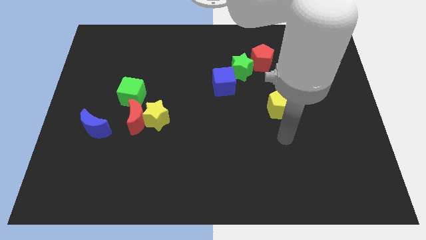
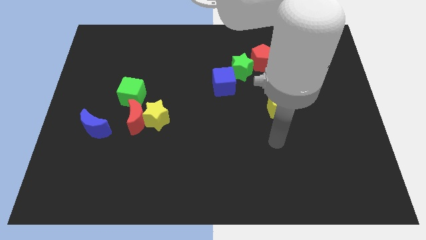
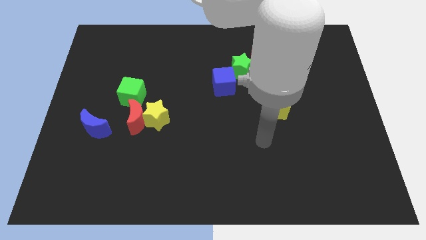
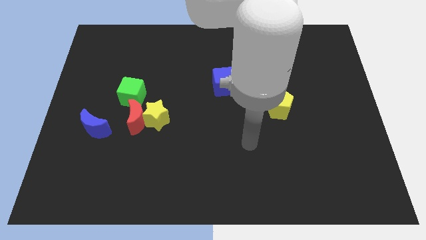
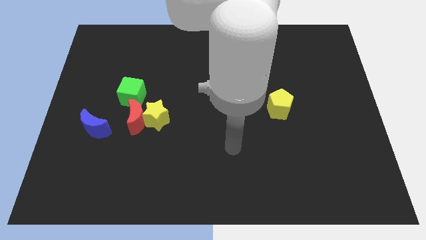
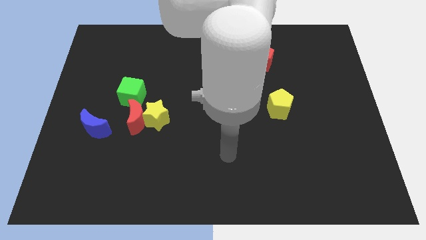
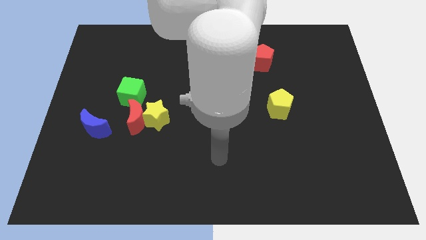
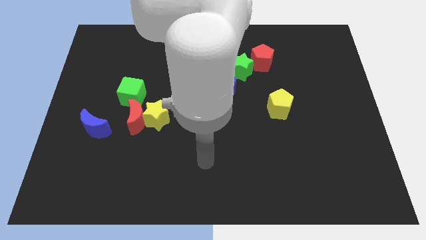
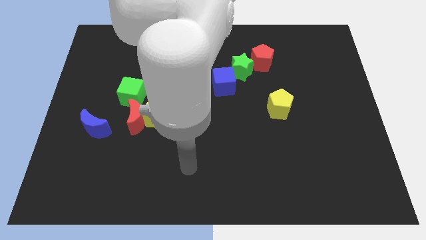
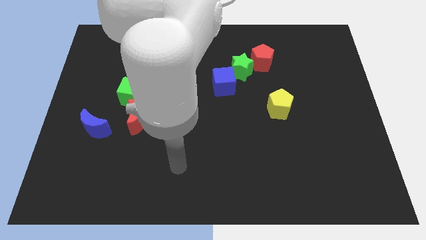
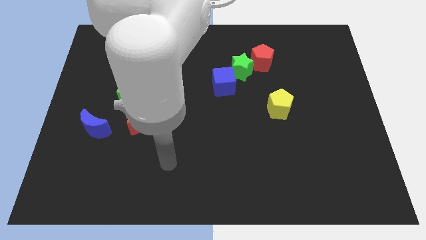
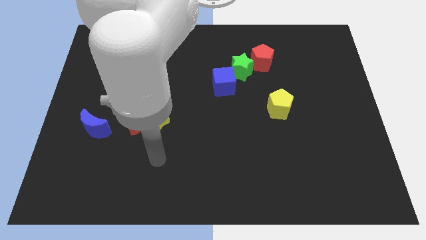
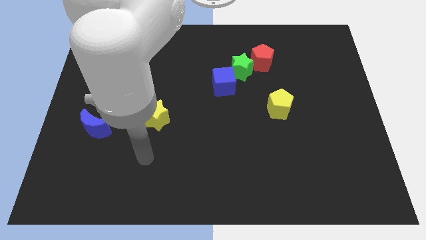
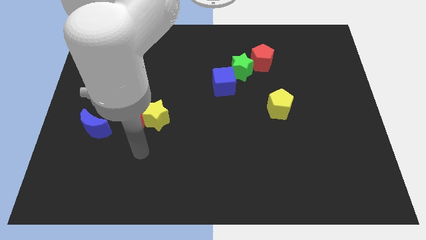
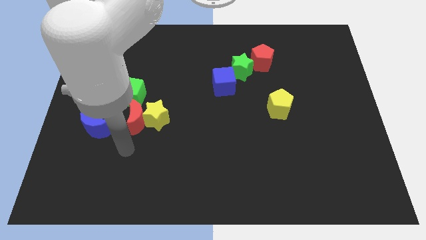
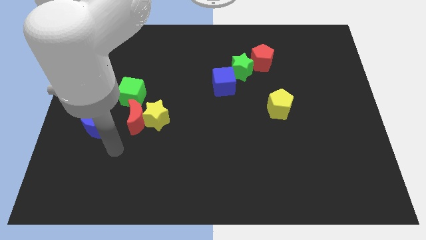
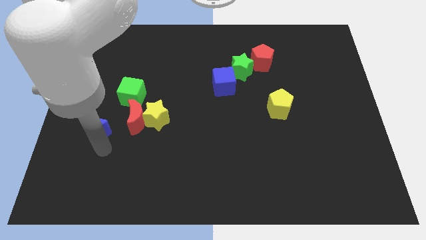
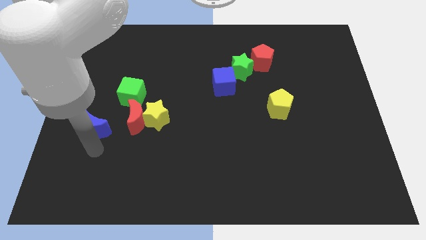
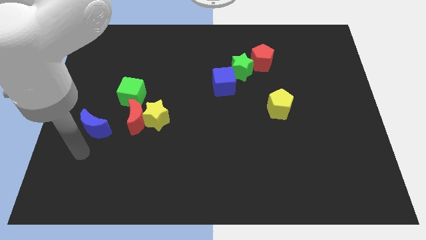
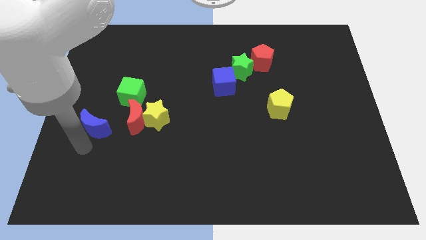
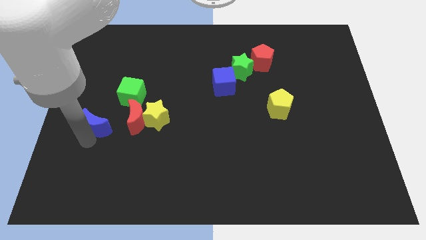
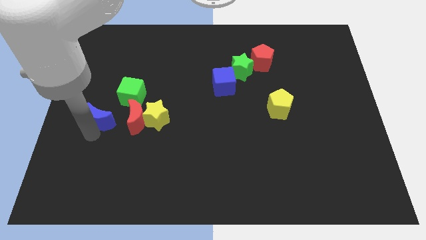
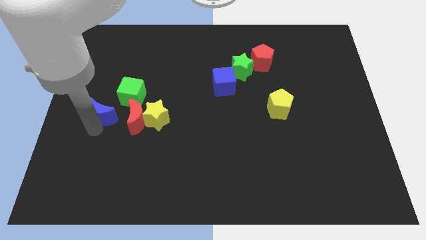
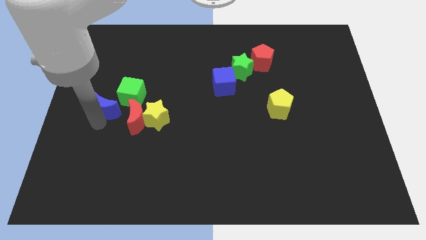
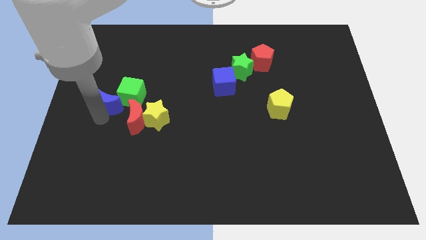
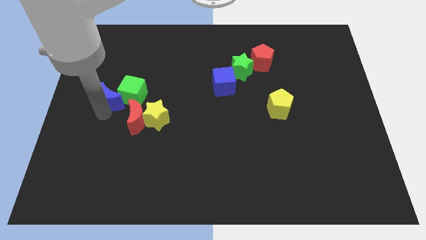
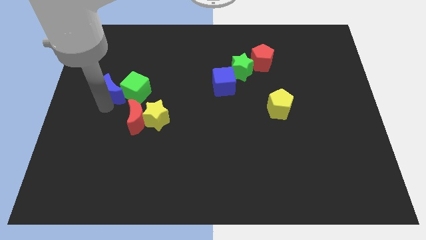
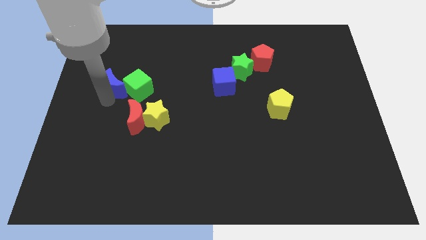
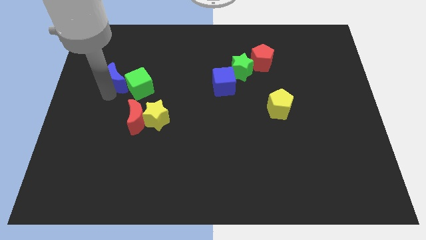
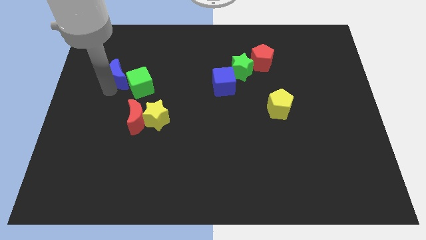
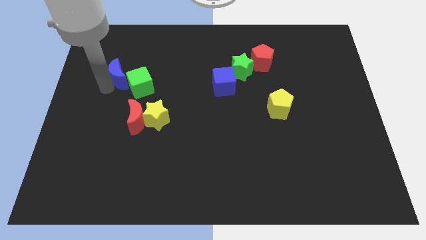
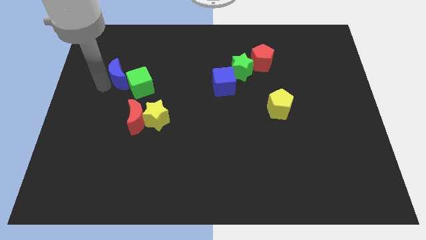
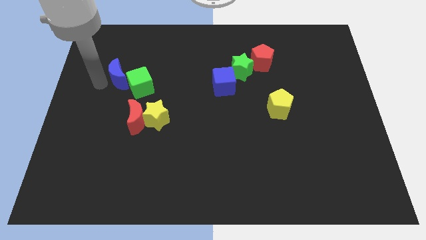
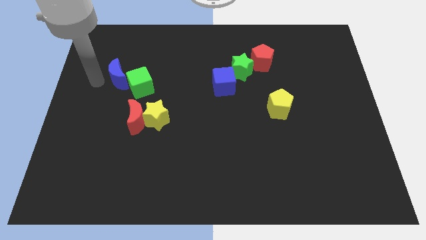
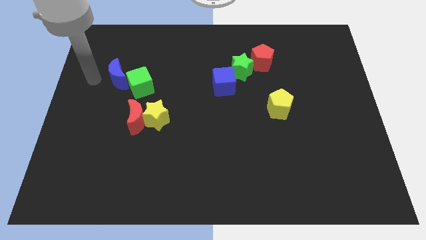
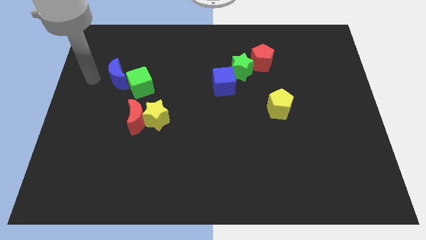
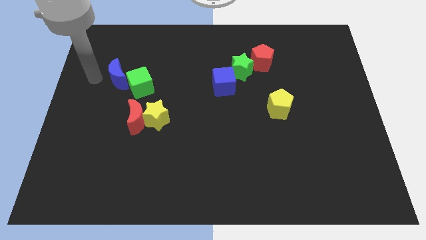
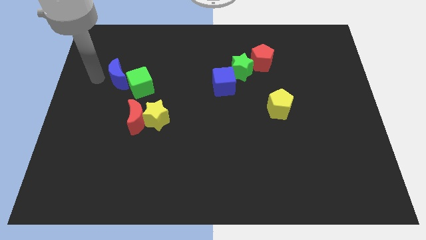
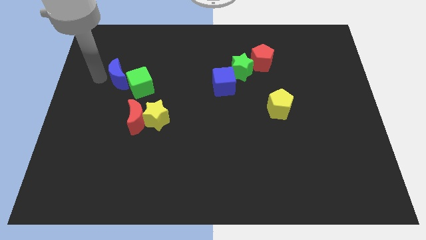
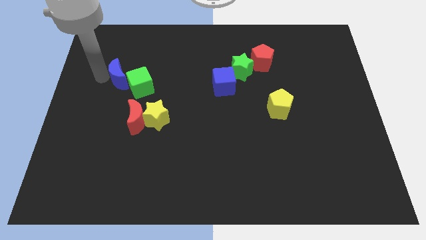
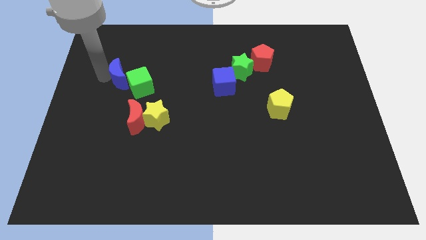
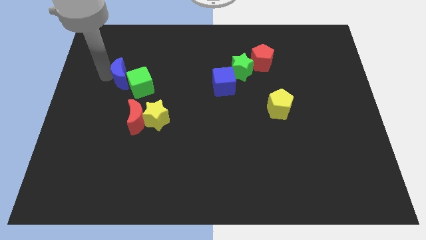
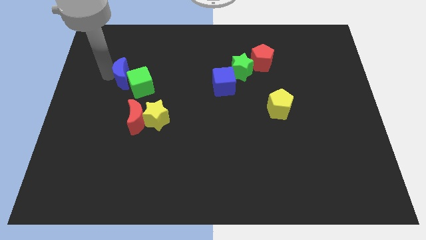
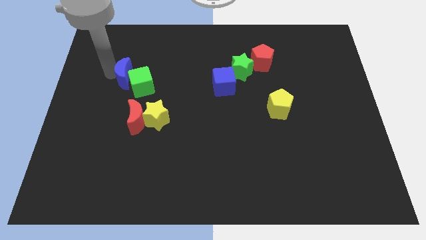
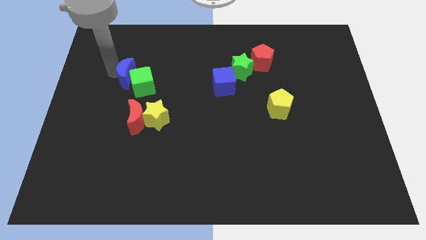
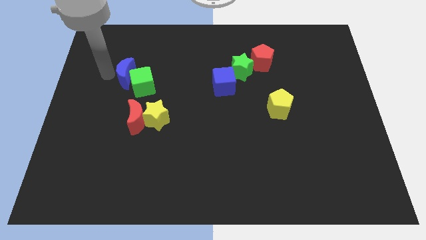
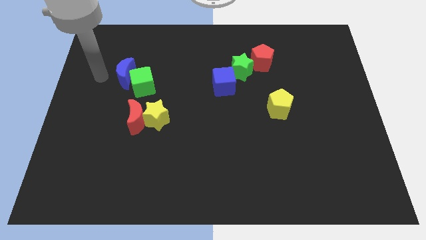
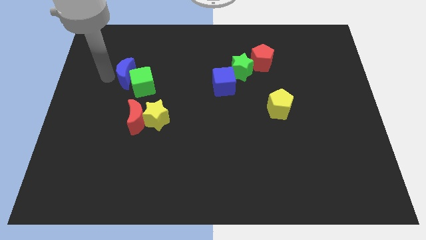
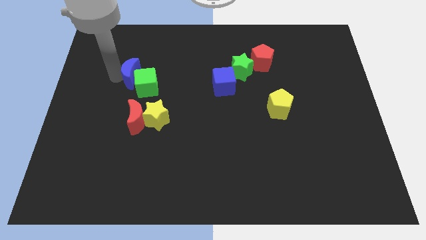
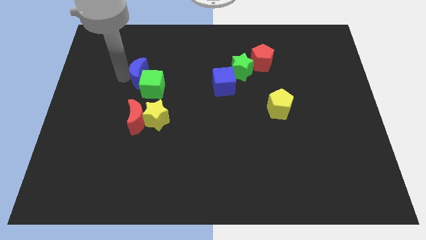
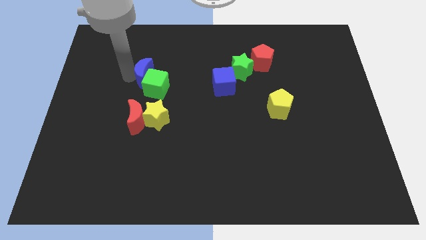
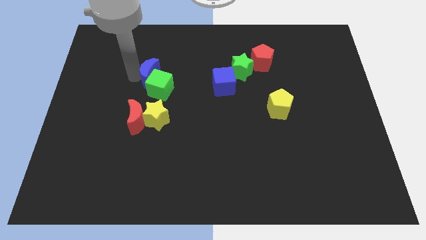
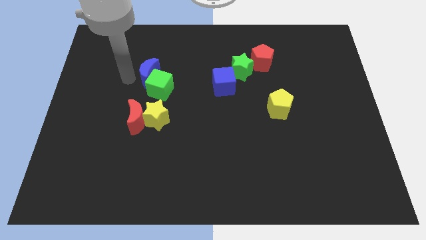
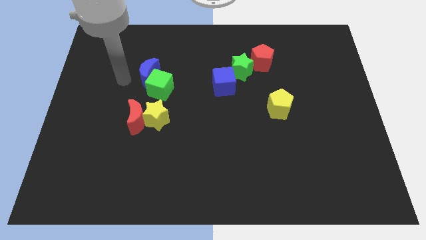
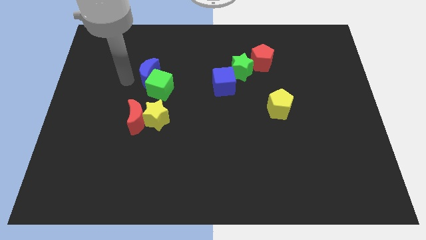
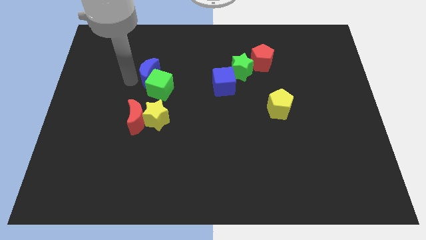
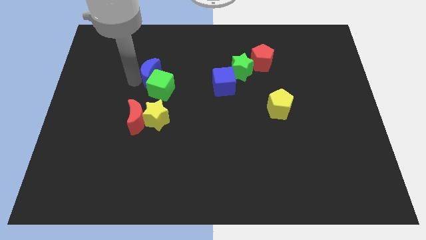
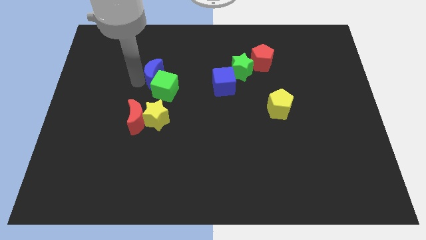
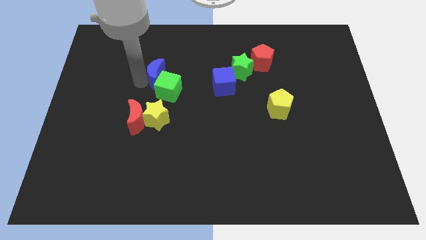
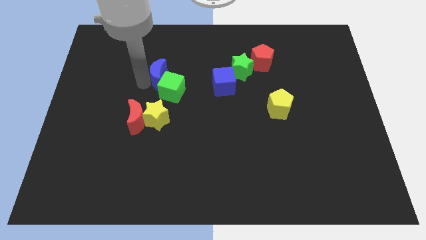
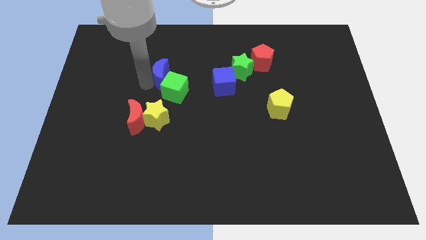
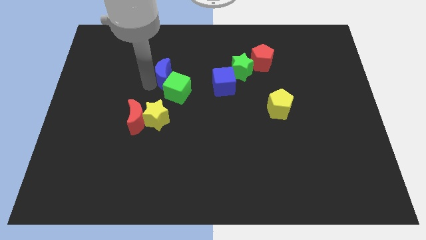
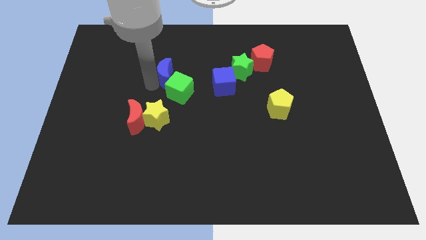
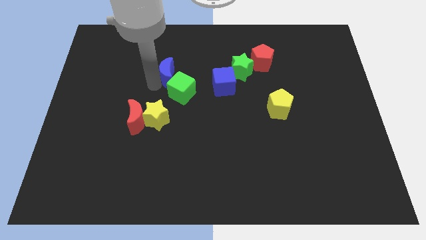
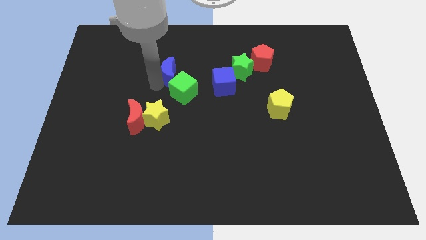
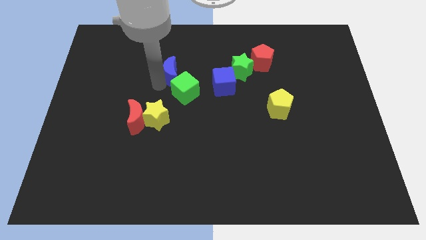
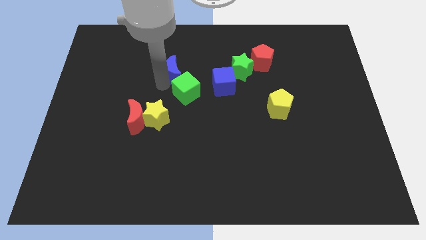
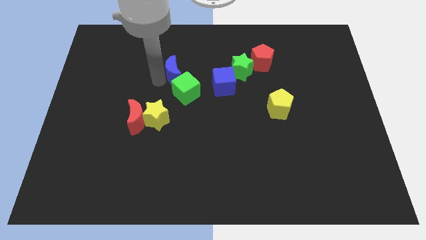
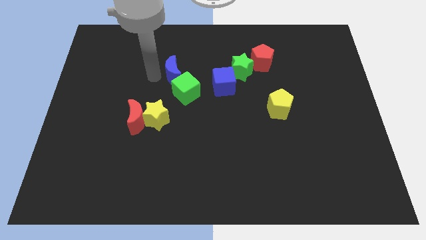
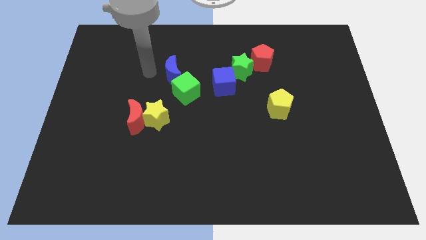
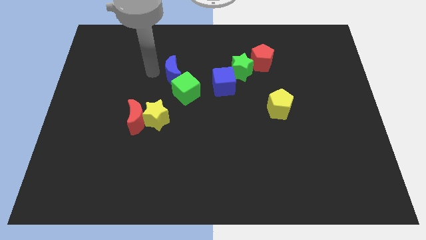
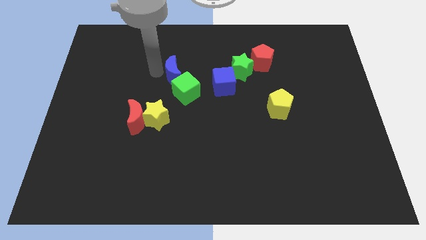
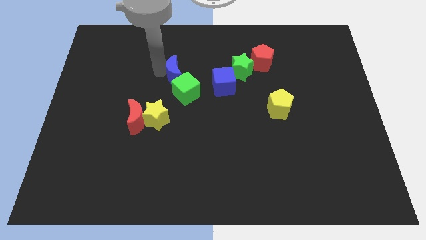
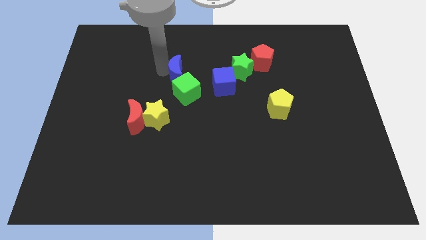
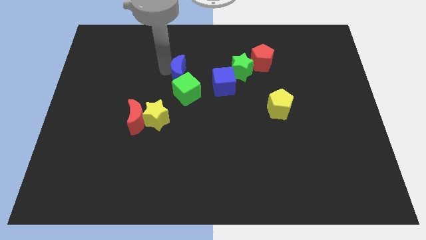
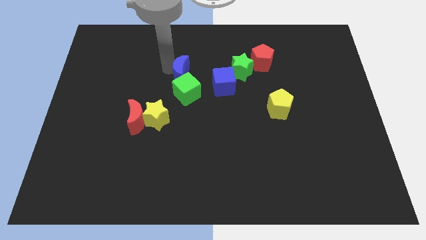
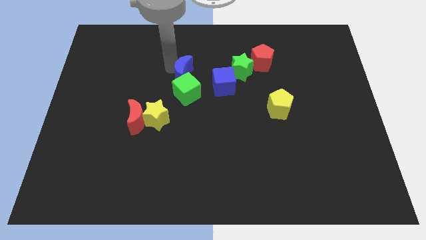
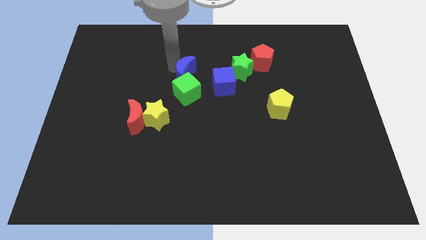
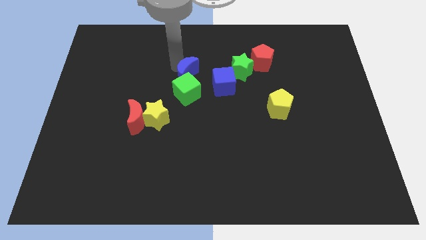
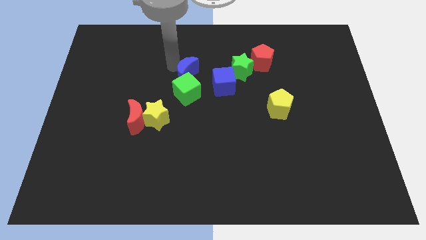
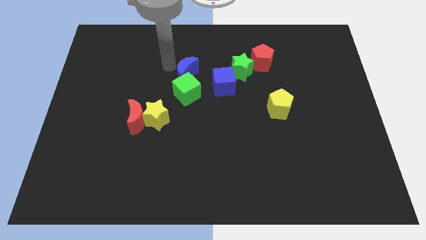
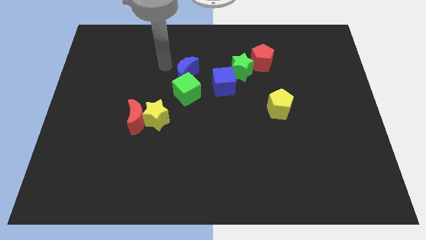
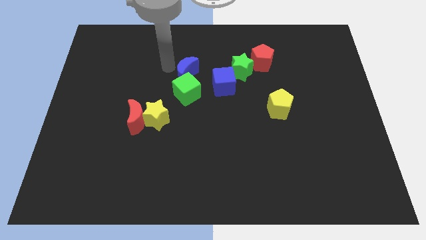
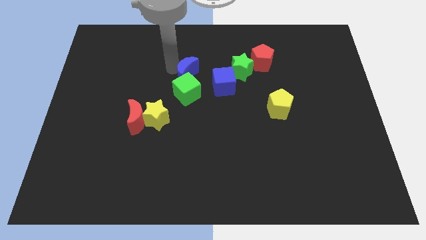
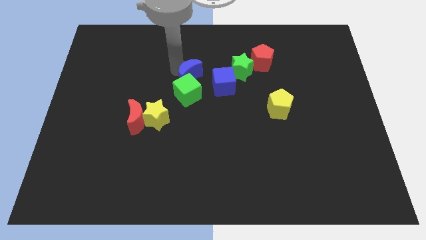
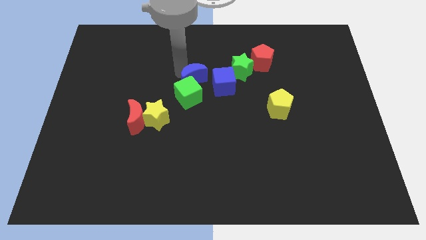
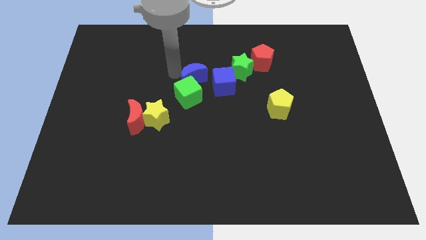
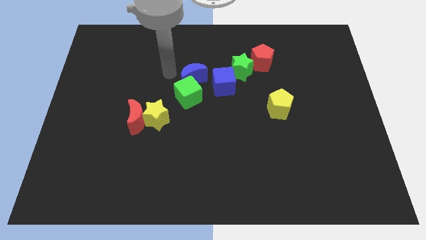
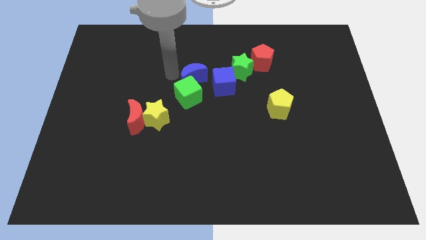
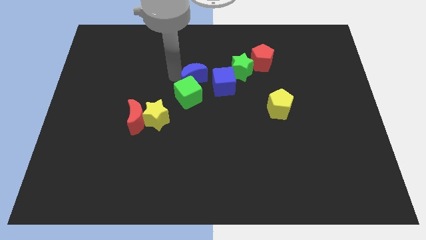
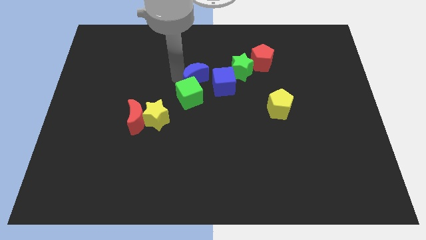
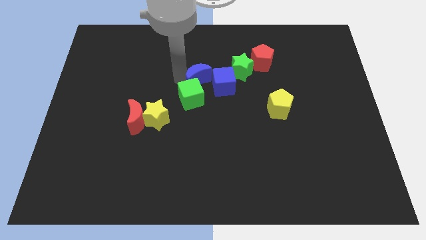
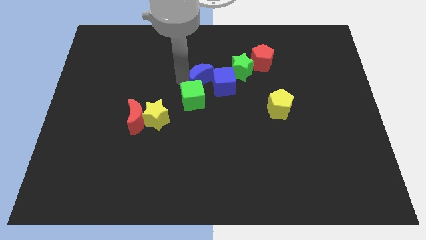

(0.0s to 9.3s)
move the blue moon close to the blue cube
